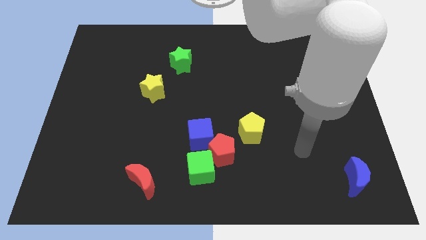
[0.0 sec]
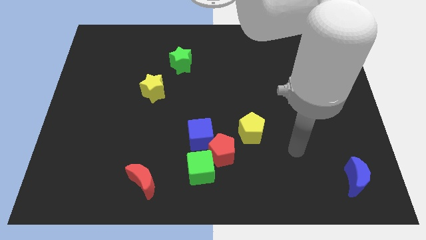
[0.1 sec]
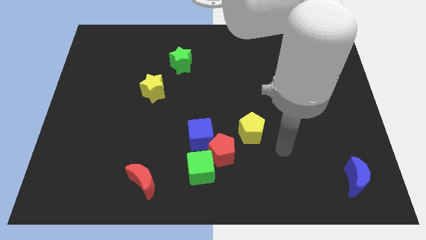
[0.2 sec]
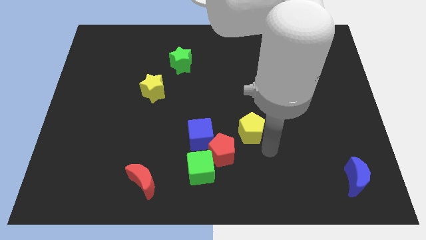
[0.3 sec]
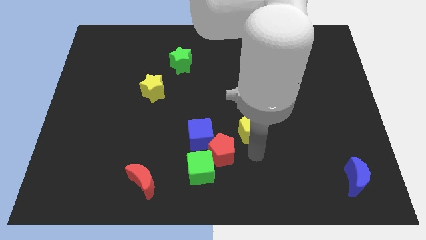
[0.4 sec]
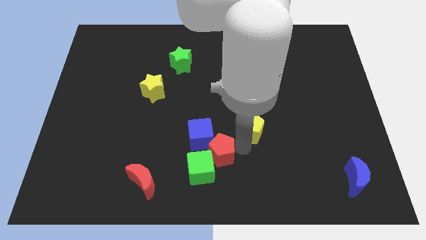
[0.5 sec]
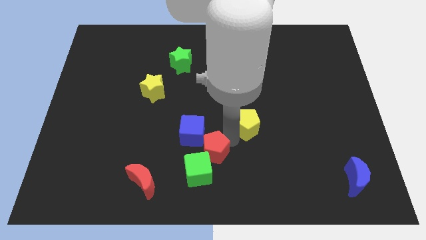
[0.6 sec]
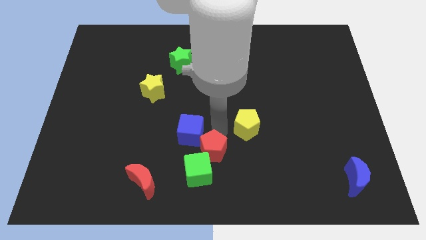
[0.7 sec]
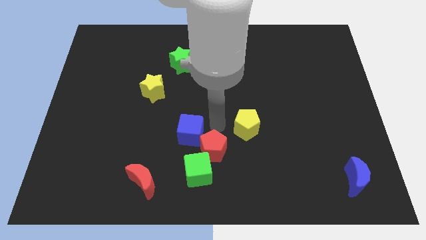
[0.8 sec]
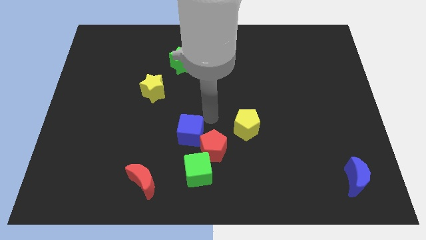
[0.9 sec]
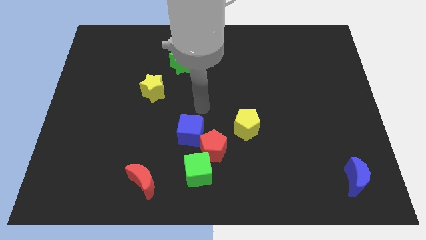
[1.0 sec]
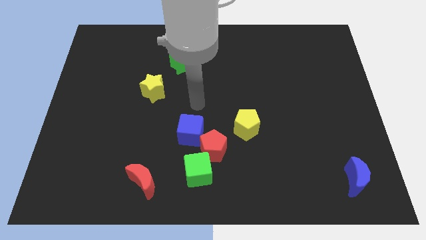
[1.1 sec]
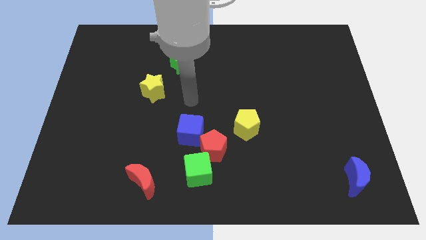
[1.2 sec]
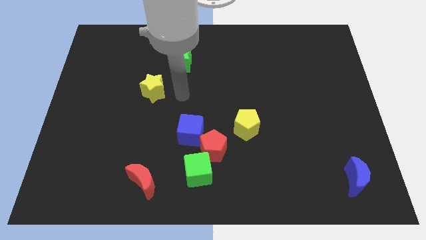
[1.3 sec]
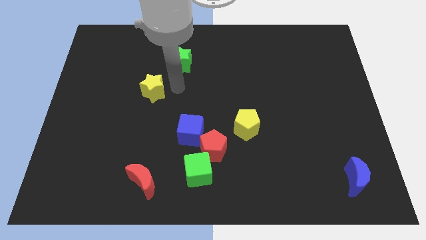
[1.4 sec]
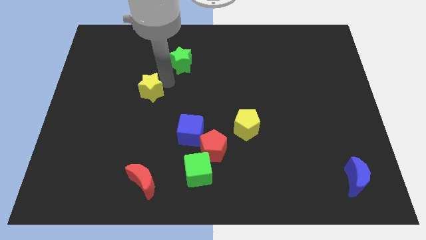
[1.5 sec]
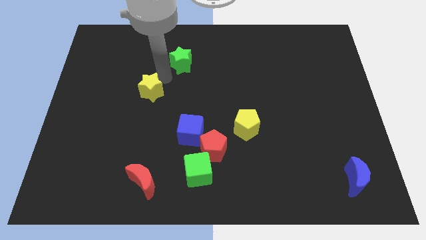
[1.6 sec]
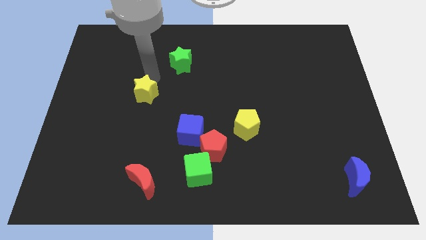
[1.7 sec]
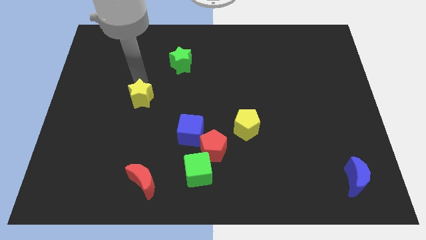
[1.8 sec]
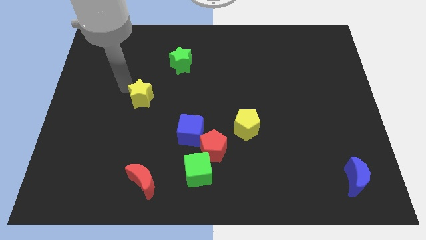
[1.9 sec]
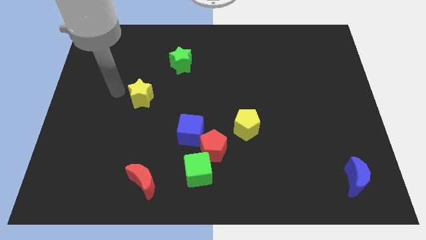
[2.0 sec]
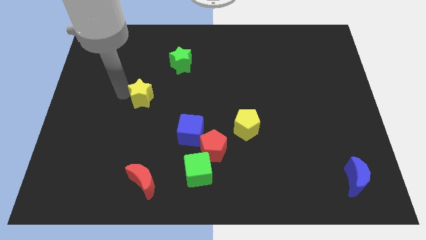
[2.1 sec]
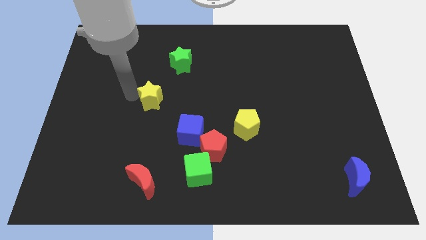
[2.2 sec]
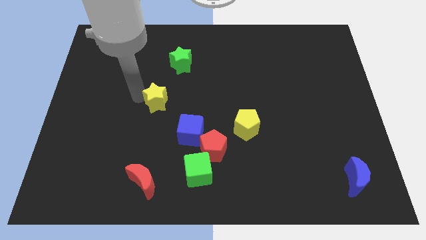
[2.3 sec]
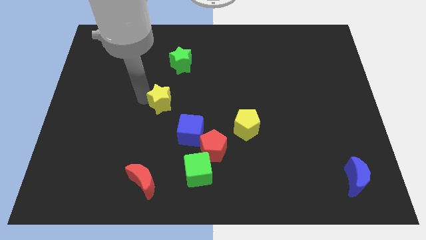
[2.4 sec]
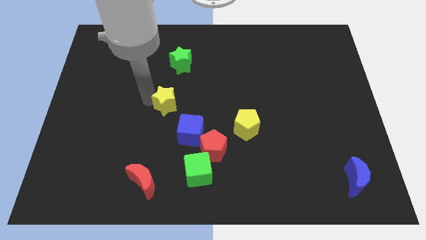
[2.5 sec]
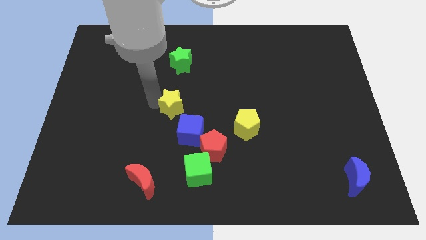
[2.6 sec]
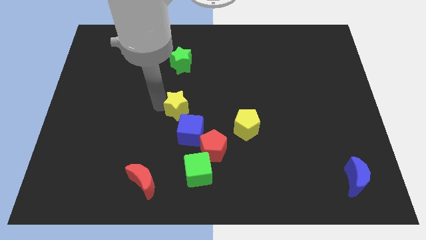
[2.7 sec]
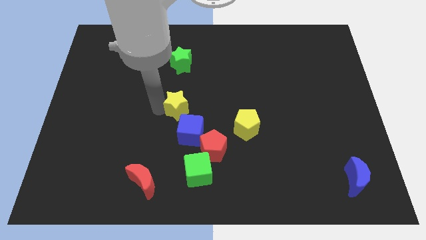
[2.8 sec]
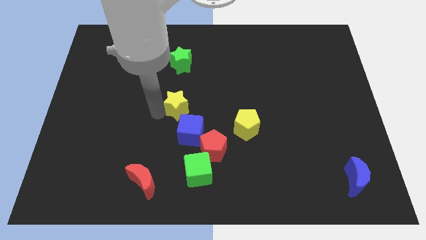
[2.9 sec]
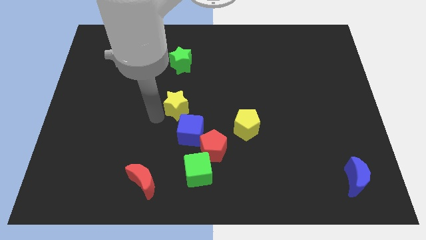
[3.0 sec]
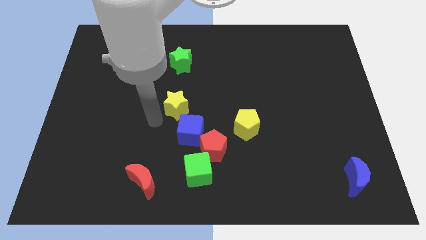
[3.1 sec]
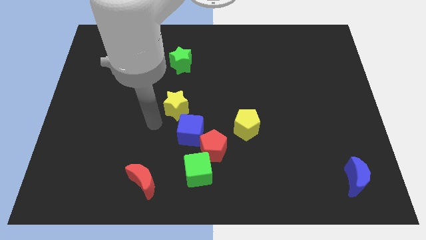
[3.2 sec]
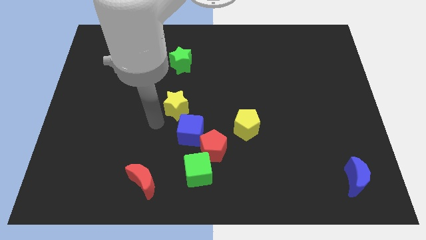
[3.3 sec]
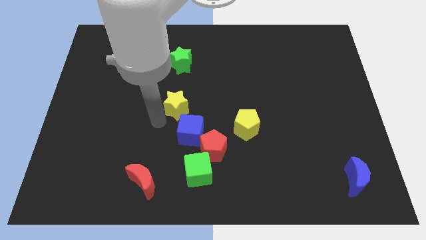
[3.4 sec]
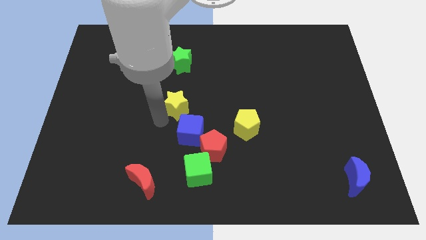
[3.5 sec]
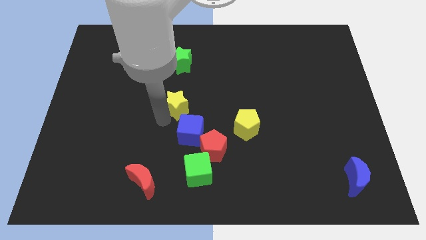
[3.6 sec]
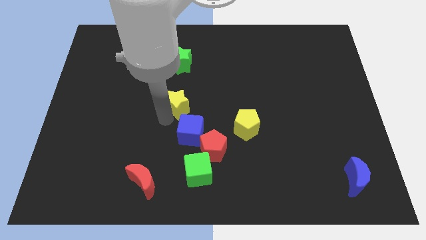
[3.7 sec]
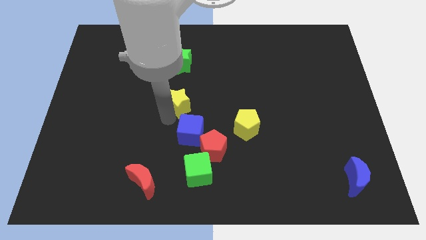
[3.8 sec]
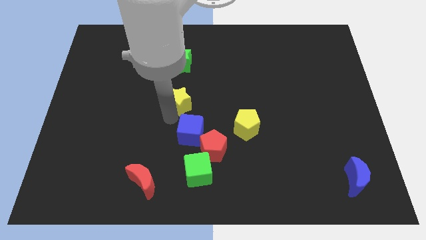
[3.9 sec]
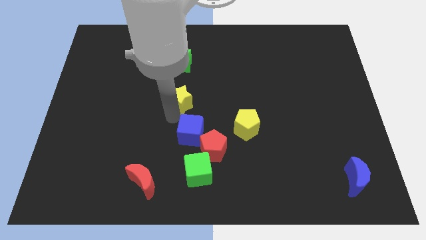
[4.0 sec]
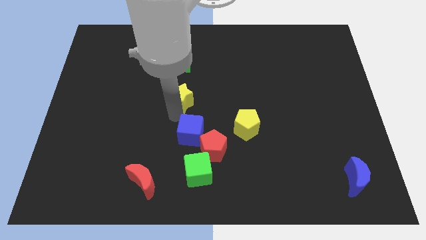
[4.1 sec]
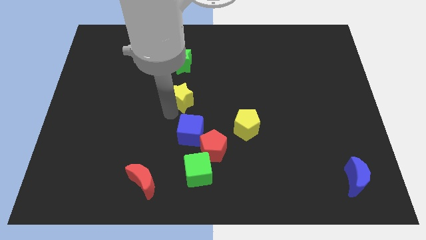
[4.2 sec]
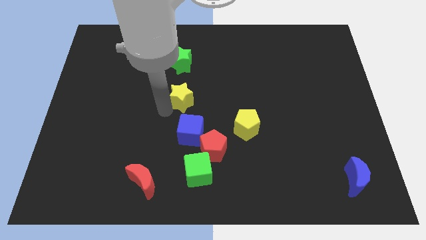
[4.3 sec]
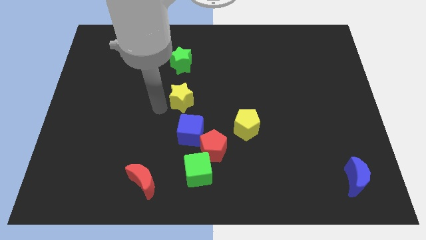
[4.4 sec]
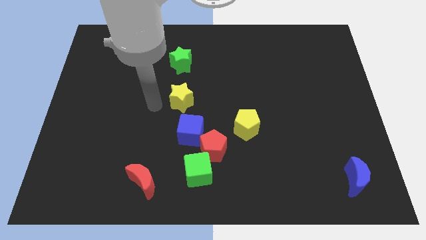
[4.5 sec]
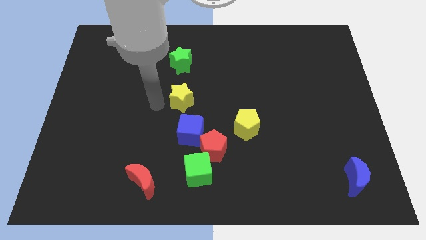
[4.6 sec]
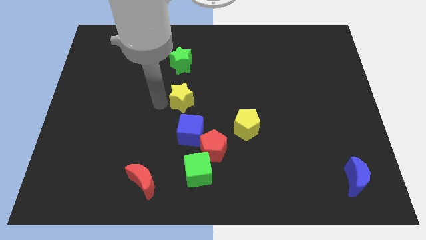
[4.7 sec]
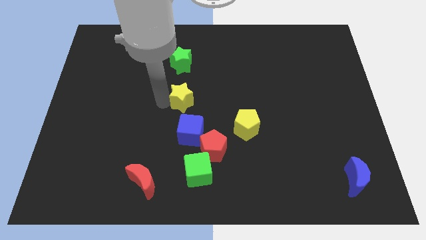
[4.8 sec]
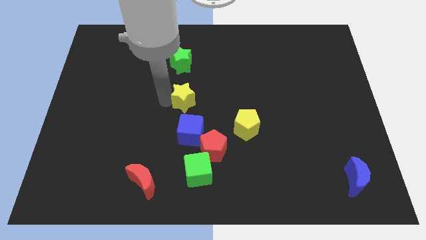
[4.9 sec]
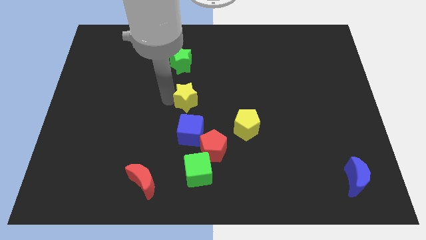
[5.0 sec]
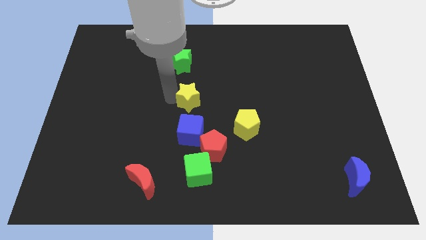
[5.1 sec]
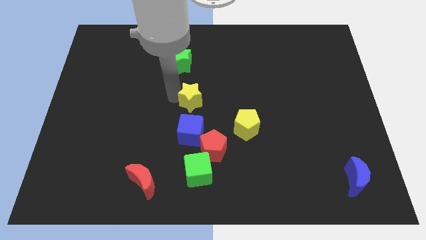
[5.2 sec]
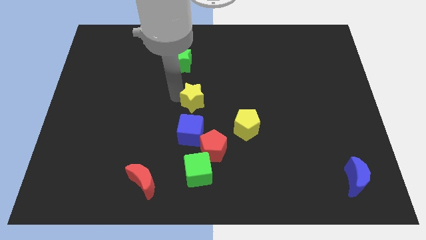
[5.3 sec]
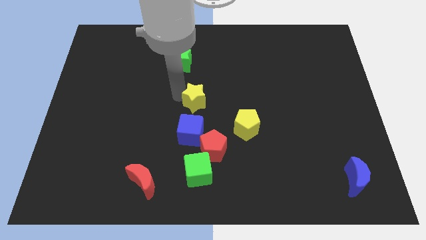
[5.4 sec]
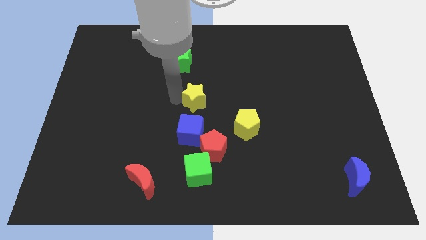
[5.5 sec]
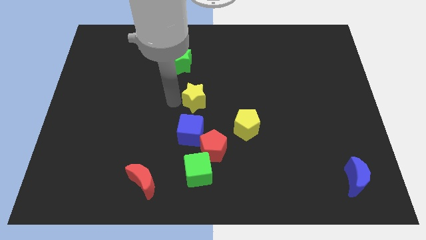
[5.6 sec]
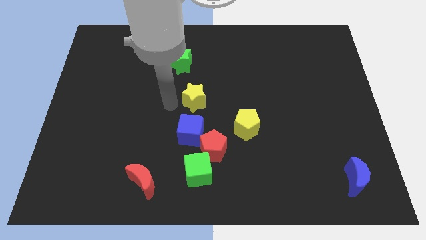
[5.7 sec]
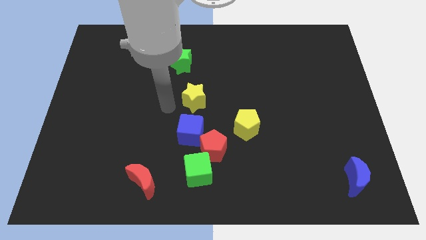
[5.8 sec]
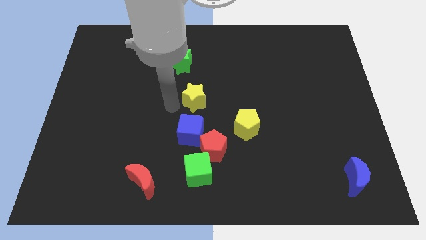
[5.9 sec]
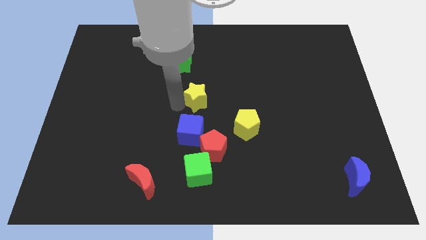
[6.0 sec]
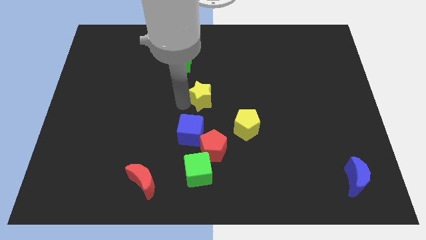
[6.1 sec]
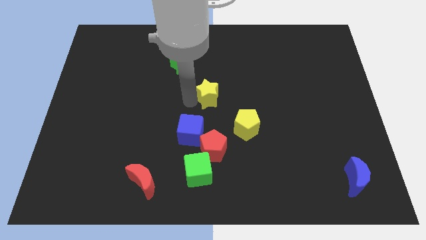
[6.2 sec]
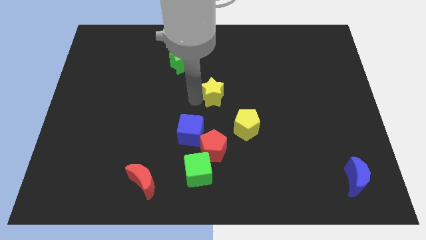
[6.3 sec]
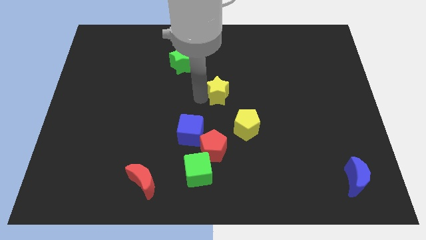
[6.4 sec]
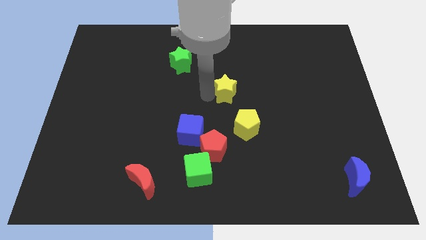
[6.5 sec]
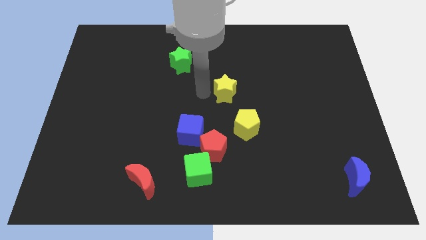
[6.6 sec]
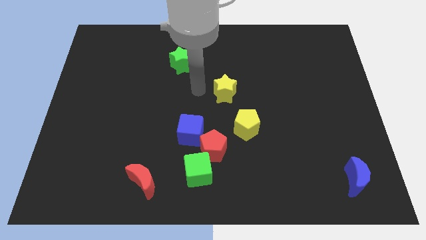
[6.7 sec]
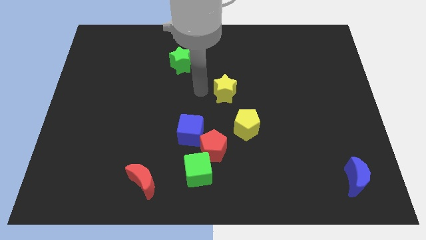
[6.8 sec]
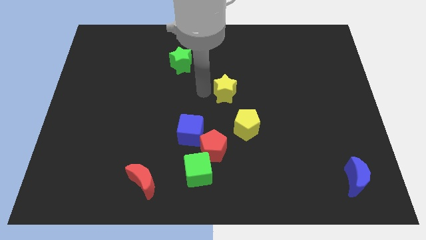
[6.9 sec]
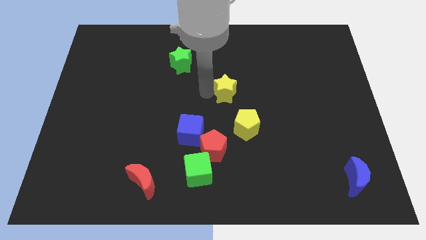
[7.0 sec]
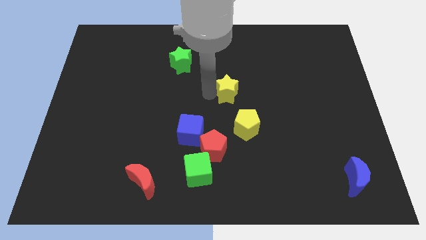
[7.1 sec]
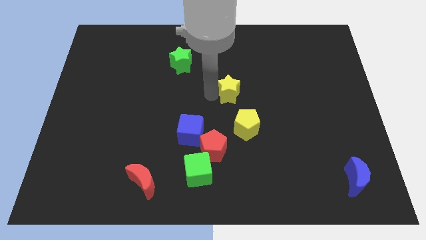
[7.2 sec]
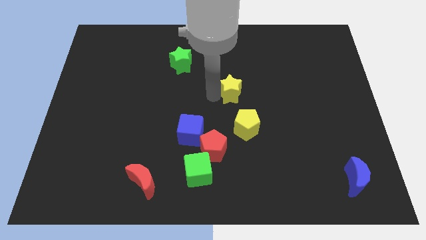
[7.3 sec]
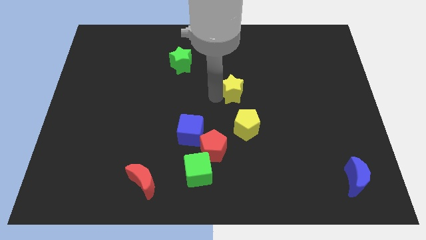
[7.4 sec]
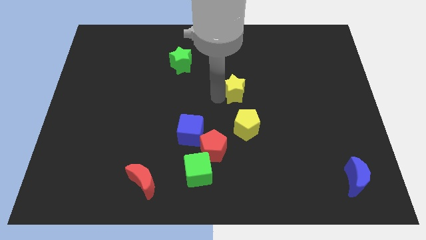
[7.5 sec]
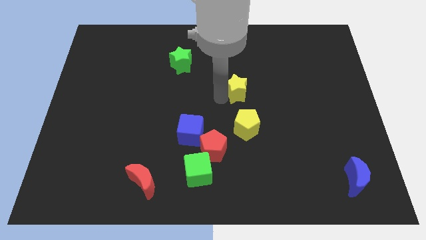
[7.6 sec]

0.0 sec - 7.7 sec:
slide the yellow star to the right
